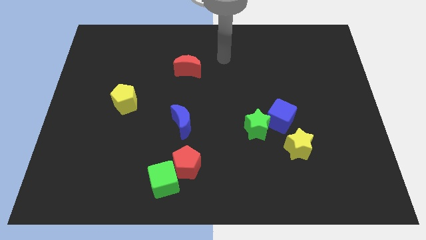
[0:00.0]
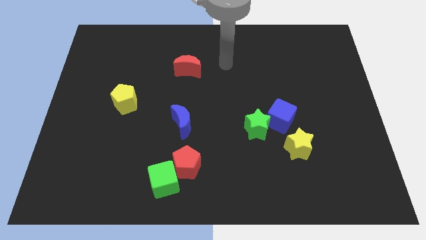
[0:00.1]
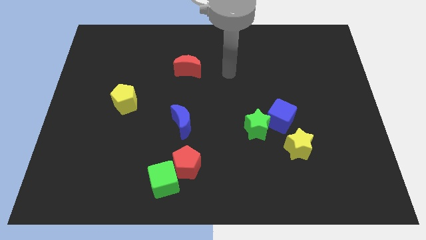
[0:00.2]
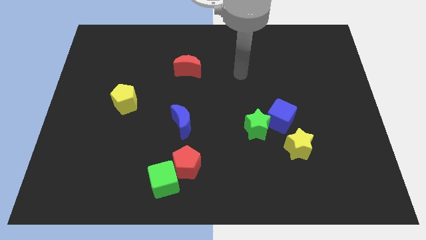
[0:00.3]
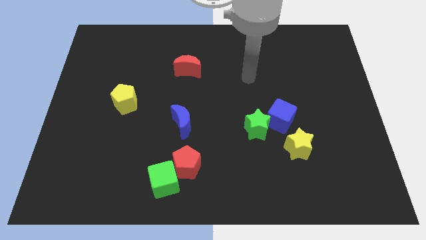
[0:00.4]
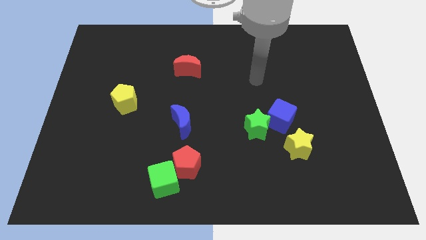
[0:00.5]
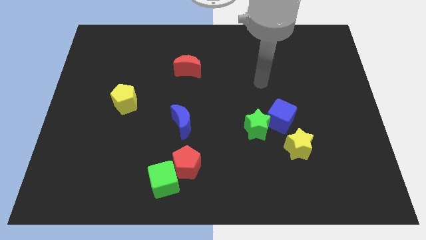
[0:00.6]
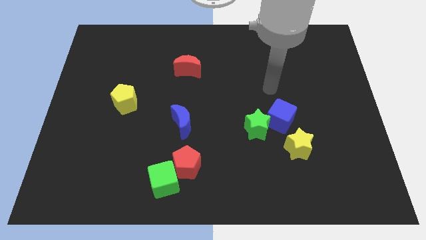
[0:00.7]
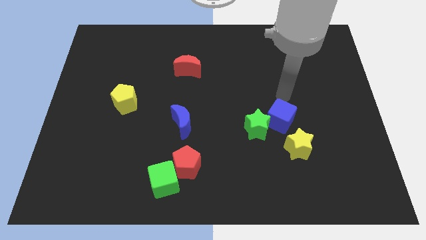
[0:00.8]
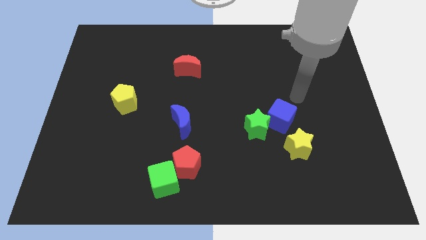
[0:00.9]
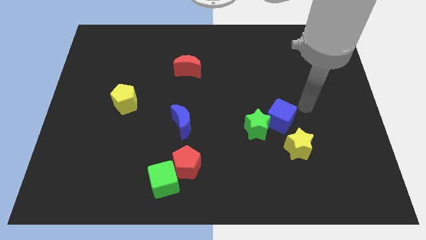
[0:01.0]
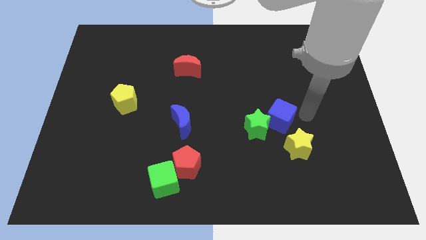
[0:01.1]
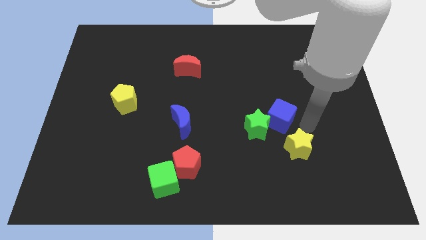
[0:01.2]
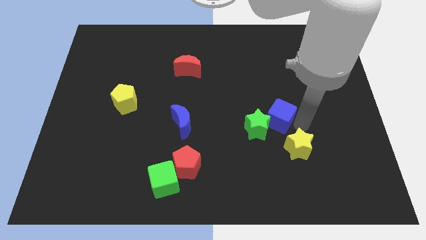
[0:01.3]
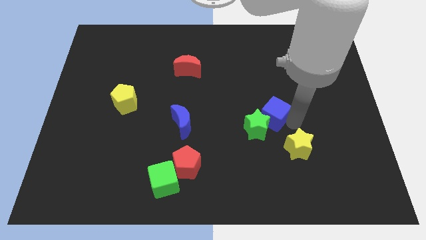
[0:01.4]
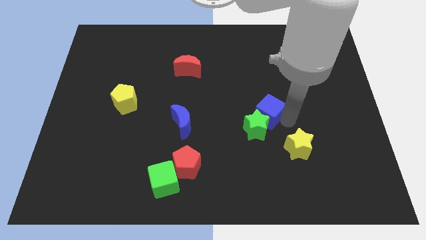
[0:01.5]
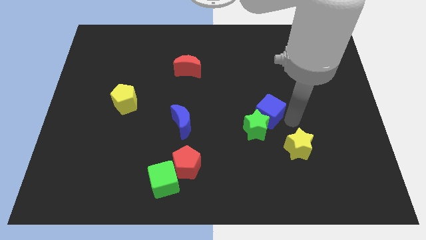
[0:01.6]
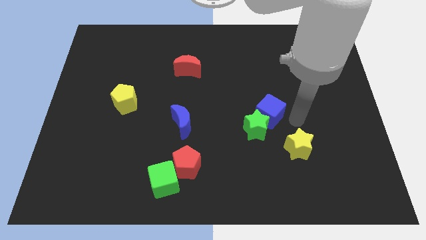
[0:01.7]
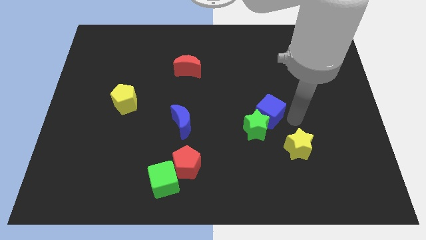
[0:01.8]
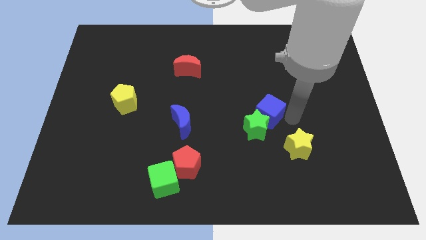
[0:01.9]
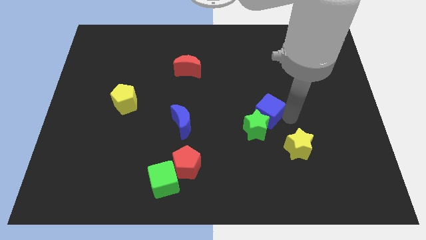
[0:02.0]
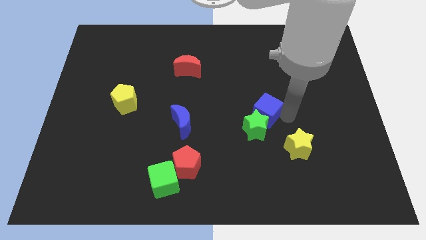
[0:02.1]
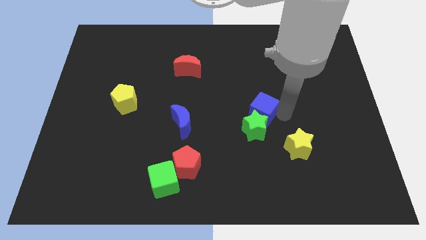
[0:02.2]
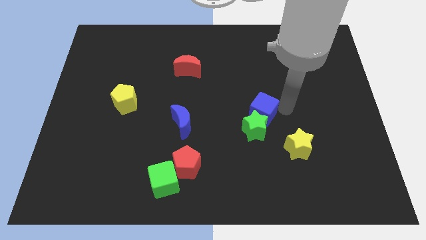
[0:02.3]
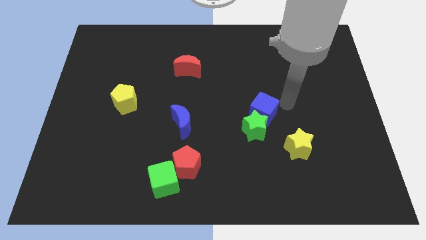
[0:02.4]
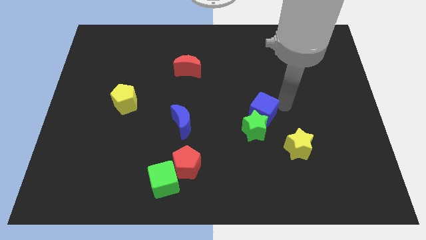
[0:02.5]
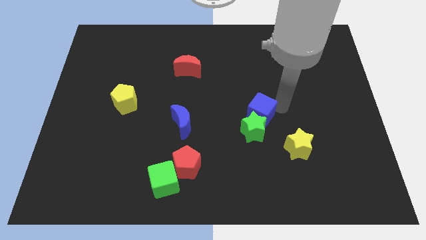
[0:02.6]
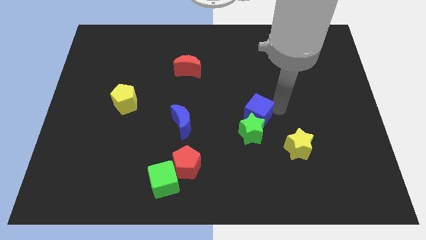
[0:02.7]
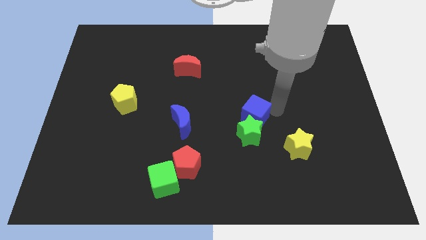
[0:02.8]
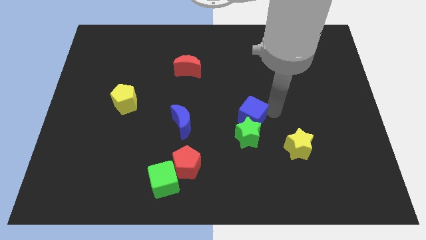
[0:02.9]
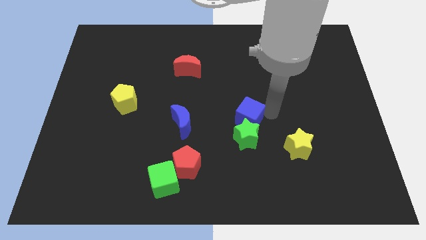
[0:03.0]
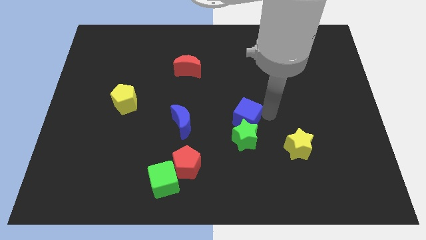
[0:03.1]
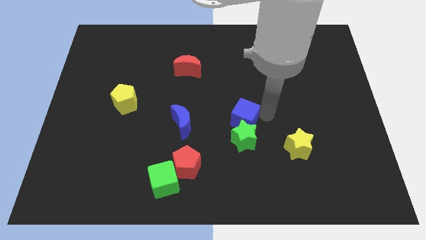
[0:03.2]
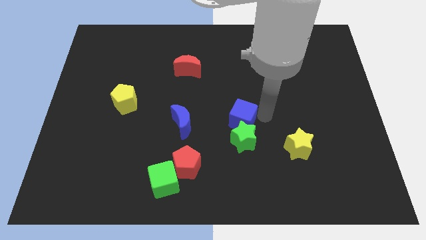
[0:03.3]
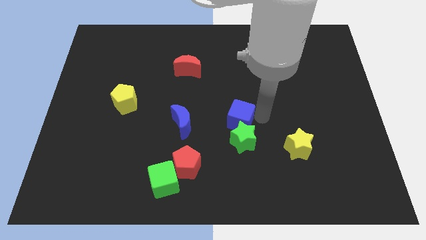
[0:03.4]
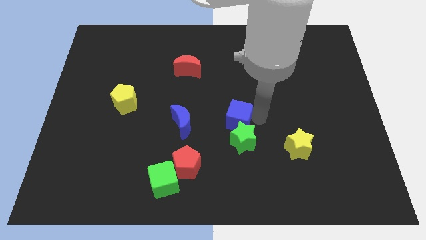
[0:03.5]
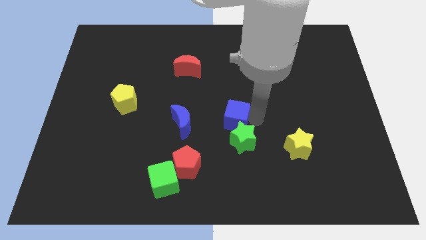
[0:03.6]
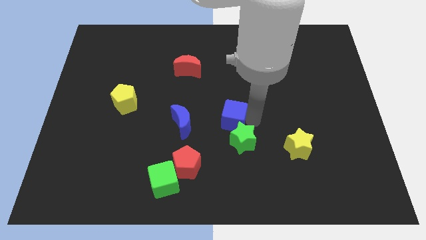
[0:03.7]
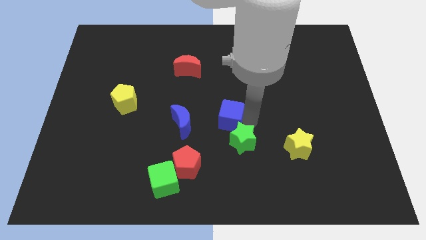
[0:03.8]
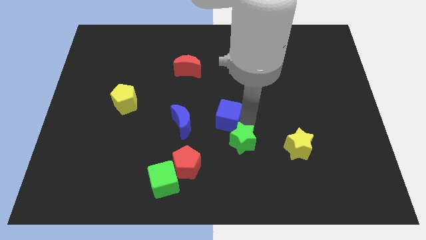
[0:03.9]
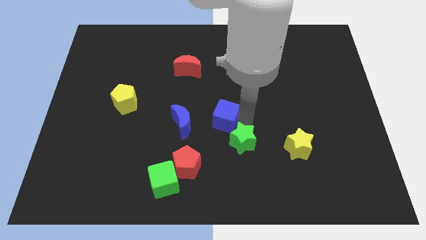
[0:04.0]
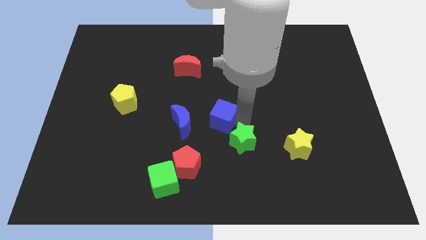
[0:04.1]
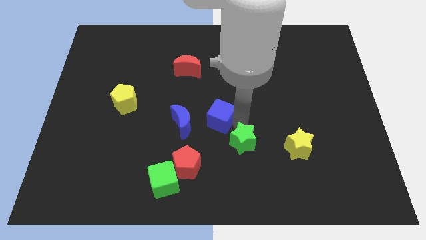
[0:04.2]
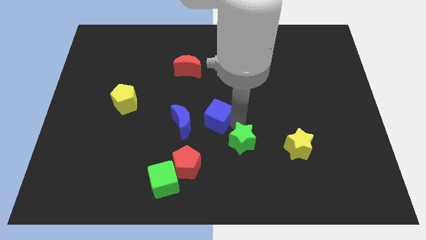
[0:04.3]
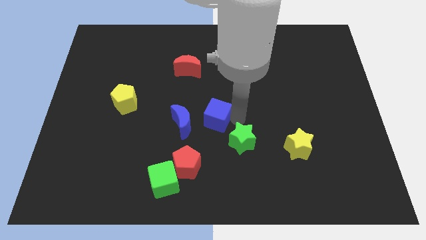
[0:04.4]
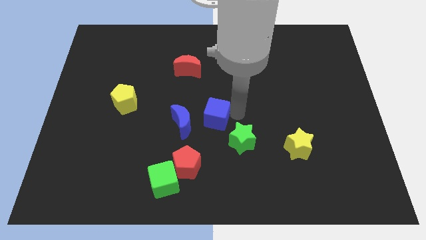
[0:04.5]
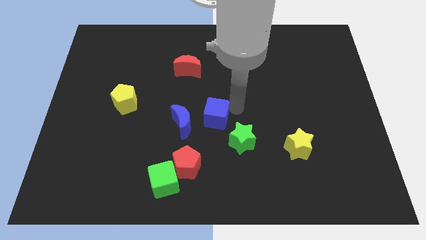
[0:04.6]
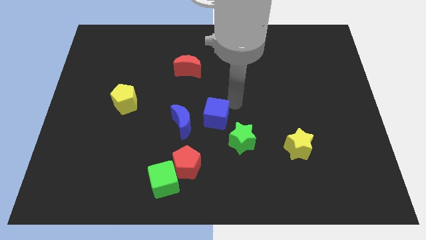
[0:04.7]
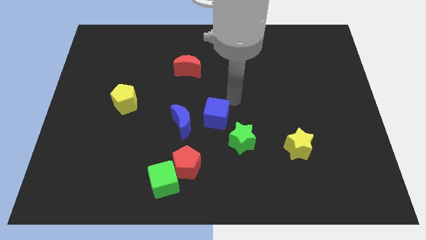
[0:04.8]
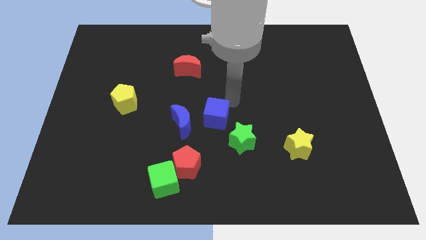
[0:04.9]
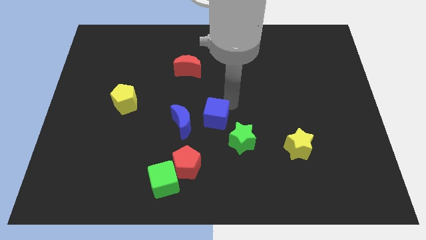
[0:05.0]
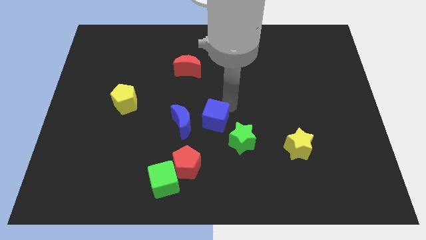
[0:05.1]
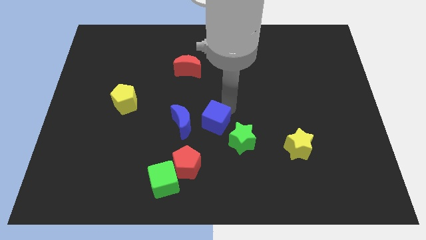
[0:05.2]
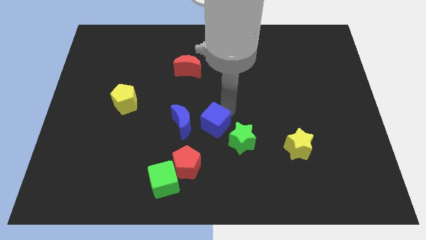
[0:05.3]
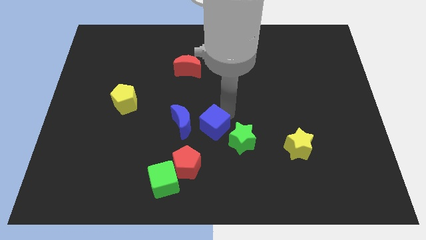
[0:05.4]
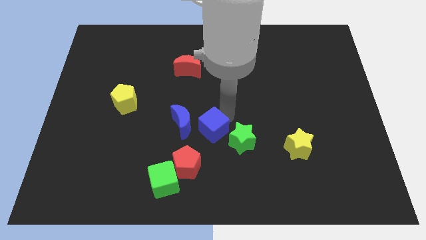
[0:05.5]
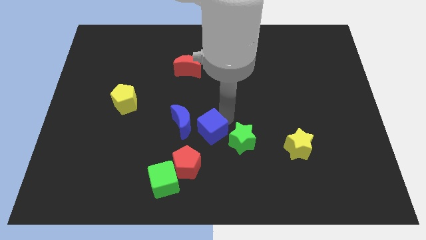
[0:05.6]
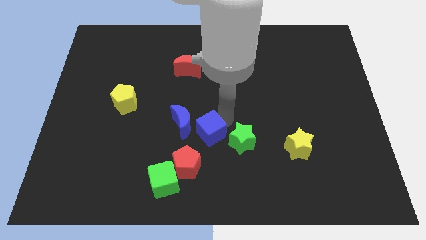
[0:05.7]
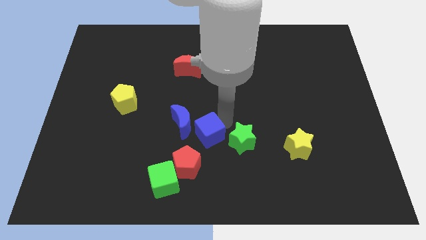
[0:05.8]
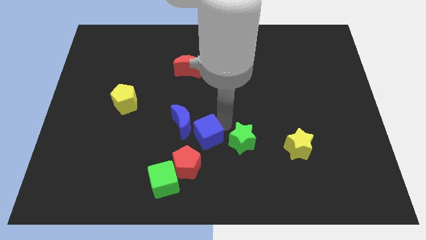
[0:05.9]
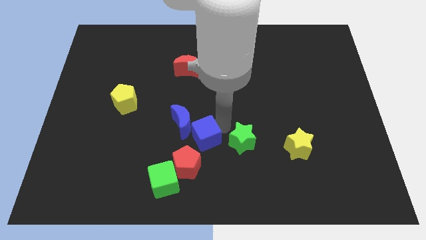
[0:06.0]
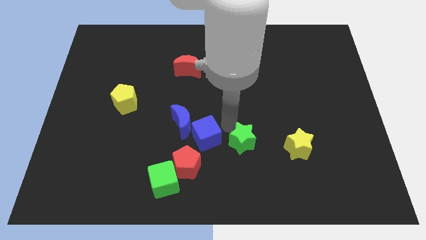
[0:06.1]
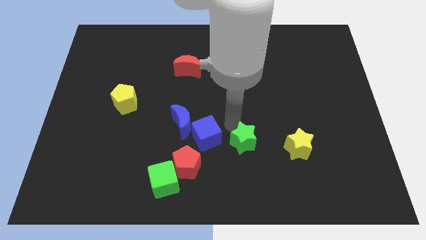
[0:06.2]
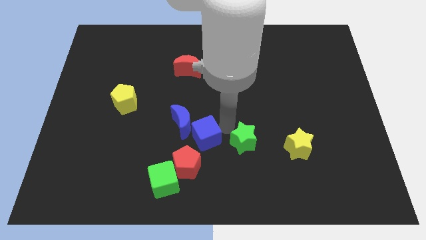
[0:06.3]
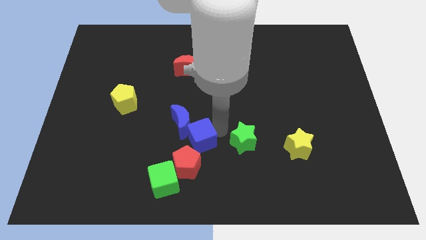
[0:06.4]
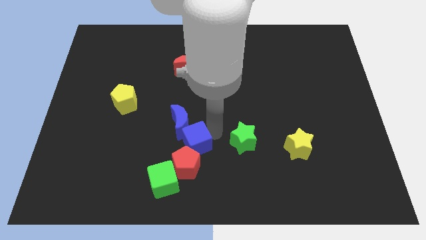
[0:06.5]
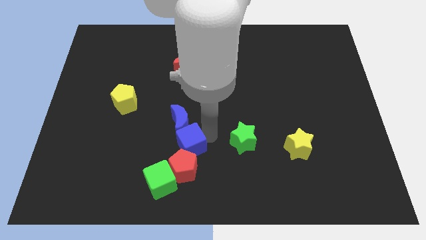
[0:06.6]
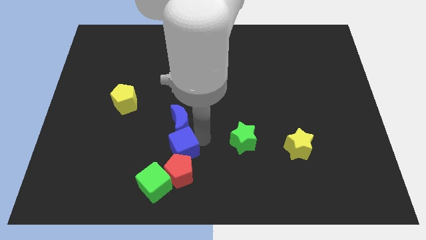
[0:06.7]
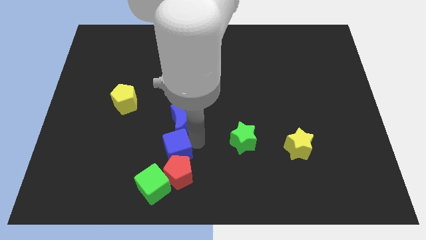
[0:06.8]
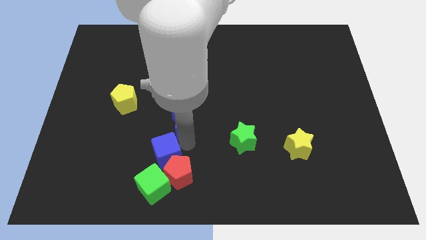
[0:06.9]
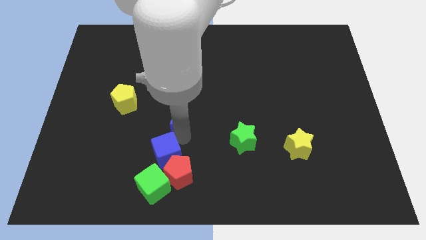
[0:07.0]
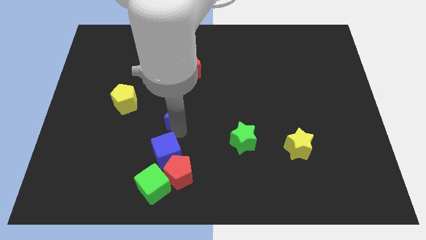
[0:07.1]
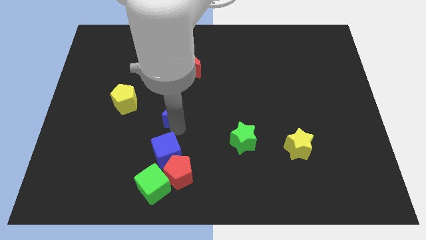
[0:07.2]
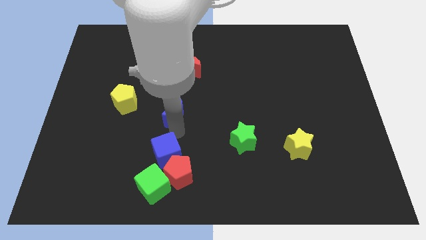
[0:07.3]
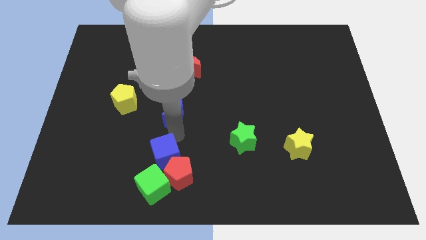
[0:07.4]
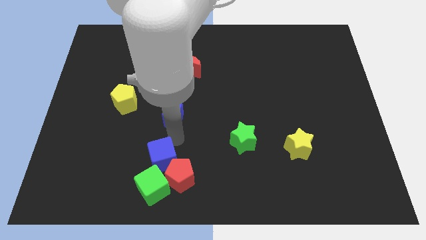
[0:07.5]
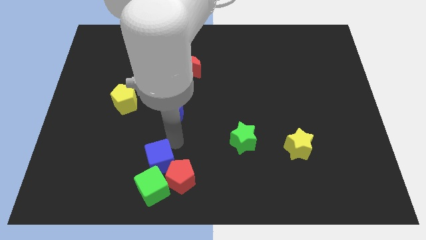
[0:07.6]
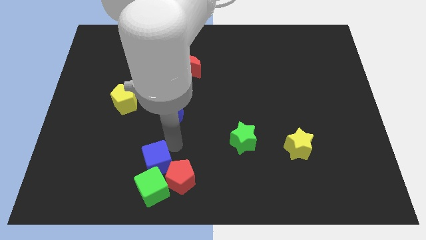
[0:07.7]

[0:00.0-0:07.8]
slide the blue cube to the green cube
